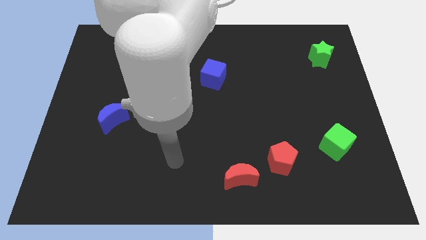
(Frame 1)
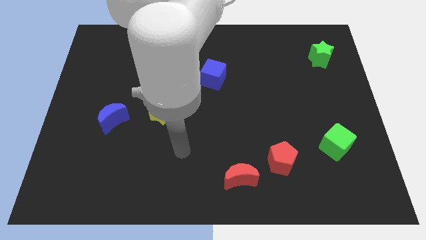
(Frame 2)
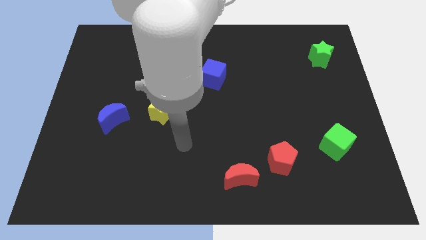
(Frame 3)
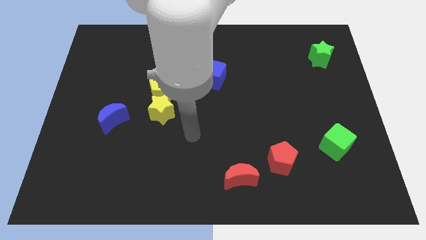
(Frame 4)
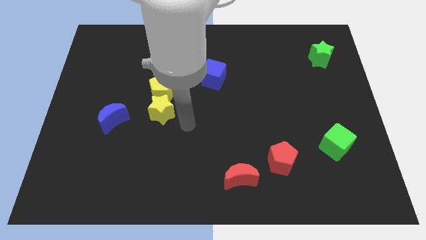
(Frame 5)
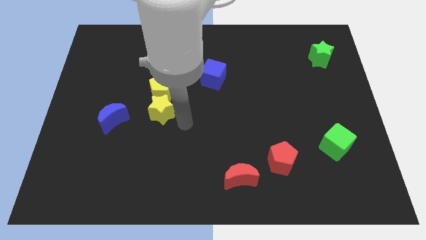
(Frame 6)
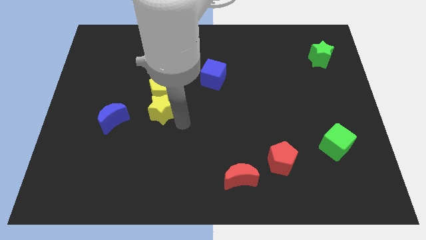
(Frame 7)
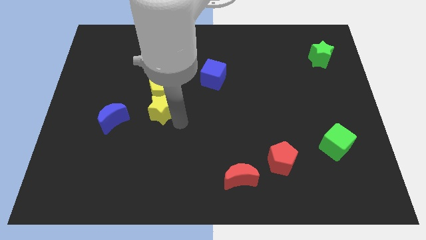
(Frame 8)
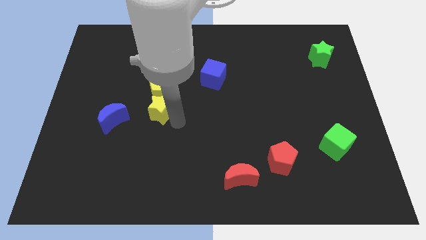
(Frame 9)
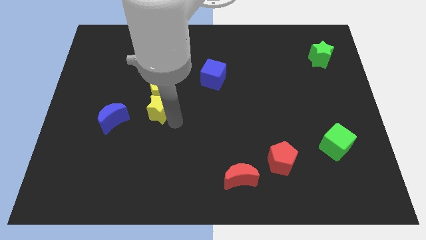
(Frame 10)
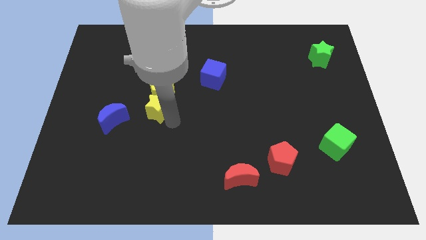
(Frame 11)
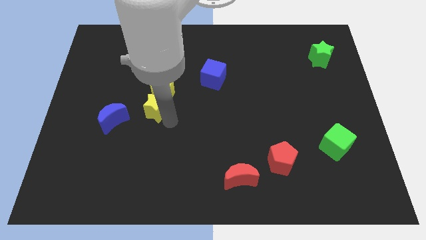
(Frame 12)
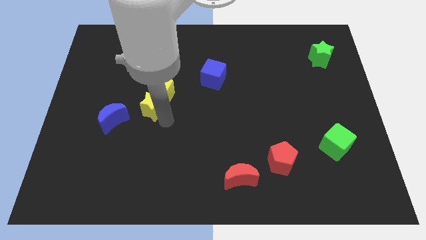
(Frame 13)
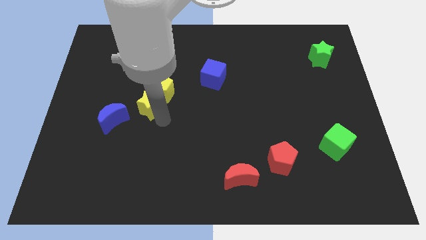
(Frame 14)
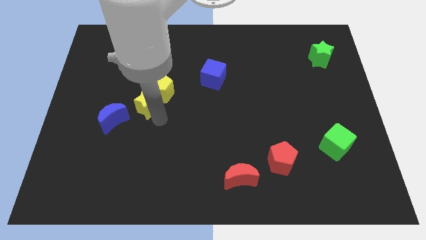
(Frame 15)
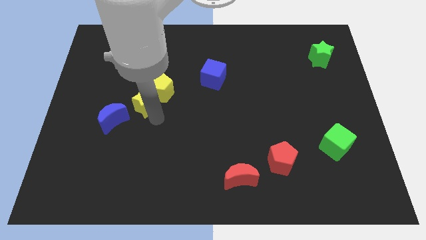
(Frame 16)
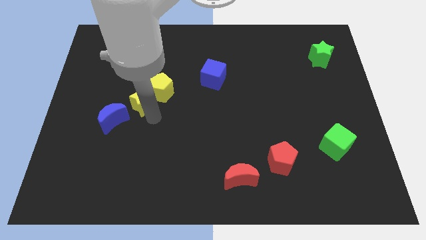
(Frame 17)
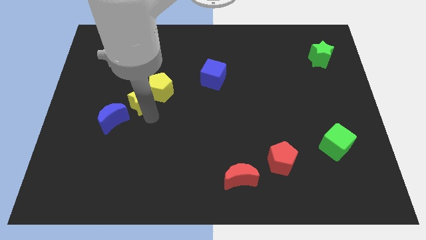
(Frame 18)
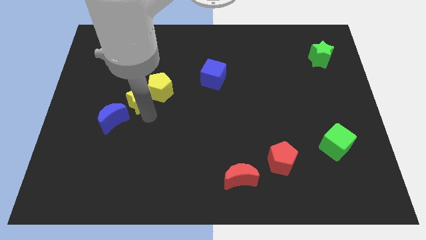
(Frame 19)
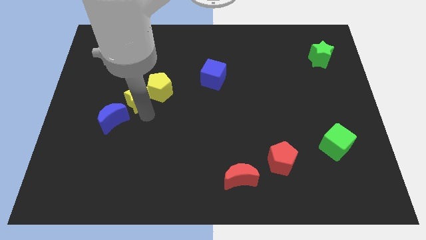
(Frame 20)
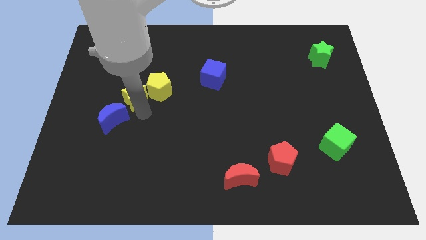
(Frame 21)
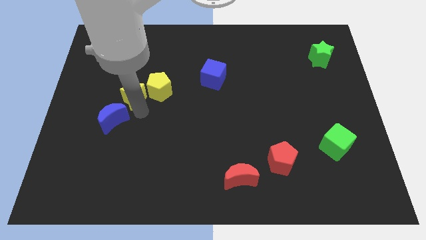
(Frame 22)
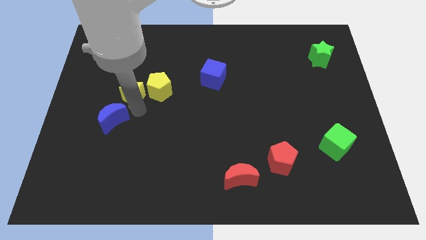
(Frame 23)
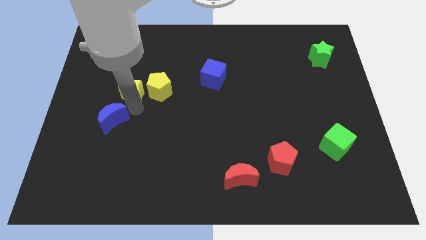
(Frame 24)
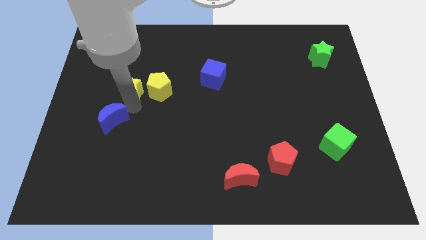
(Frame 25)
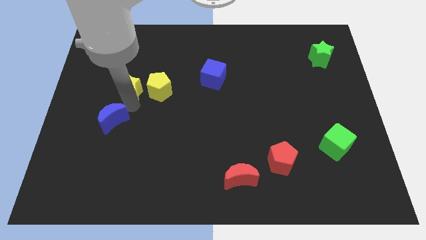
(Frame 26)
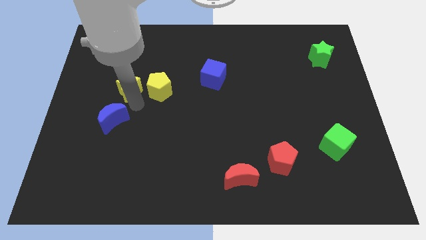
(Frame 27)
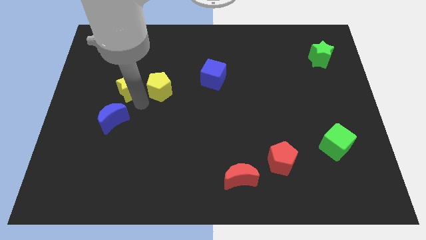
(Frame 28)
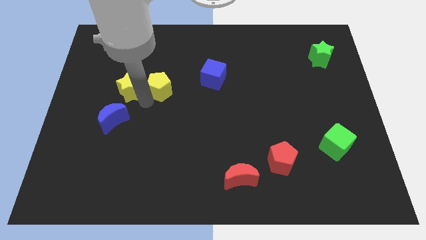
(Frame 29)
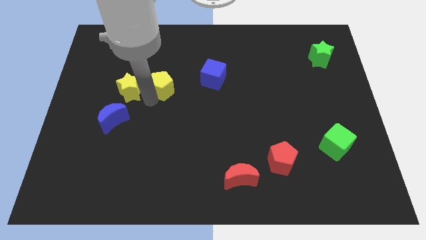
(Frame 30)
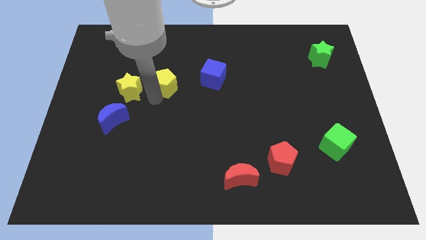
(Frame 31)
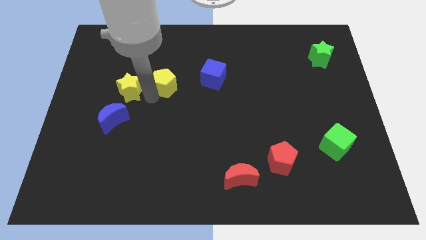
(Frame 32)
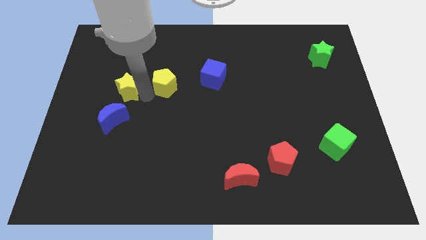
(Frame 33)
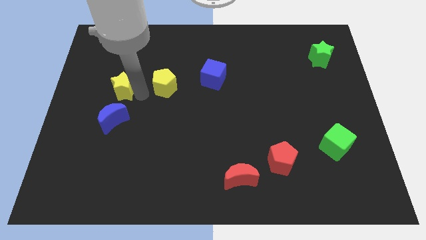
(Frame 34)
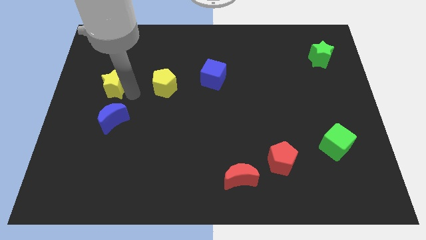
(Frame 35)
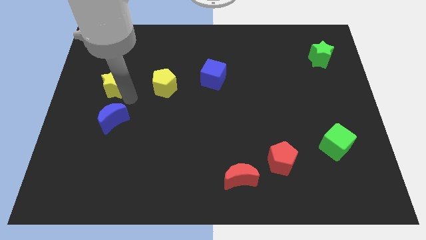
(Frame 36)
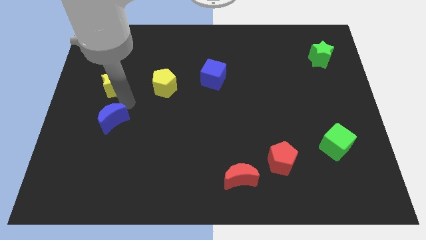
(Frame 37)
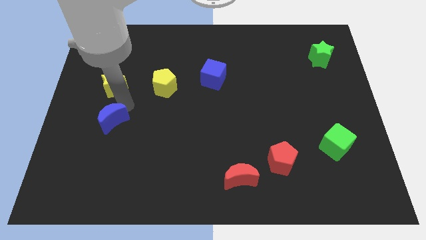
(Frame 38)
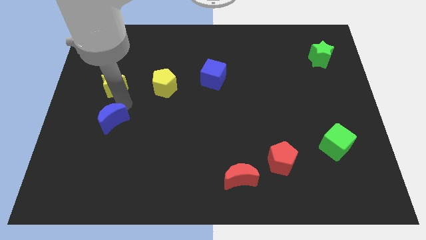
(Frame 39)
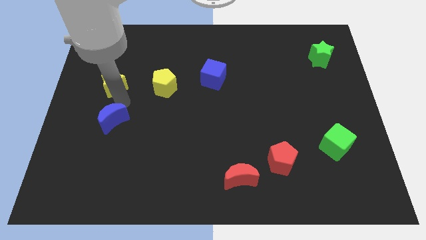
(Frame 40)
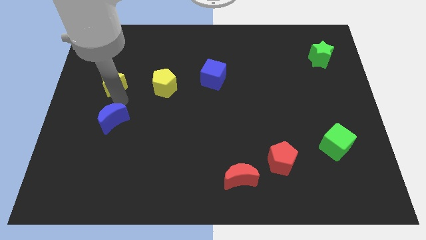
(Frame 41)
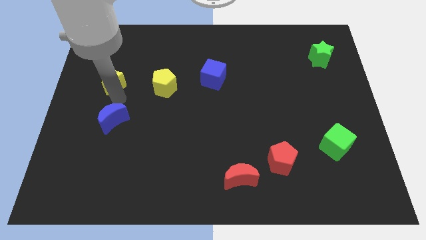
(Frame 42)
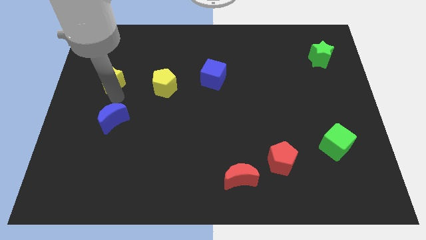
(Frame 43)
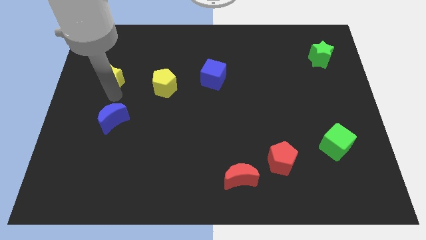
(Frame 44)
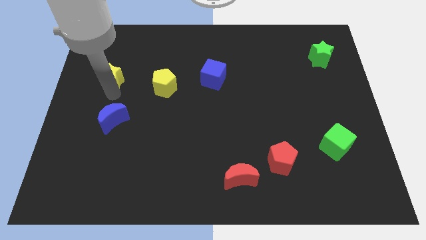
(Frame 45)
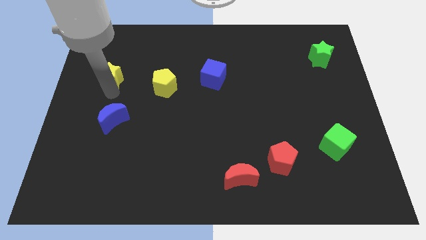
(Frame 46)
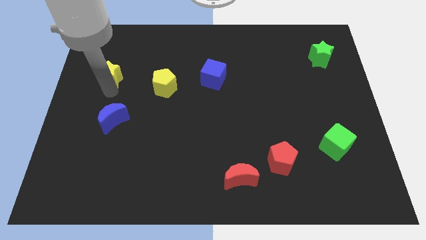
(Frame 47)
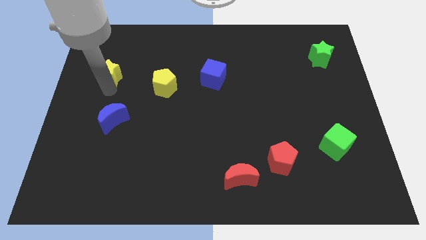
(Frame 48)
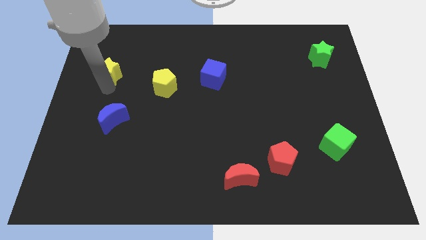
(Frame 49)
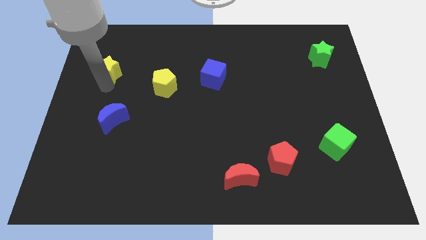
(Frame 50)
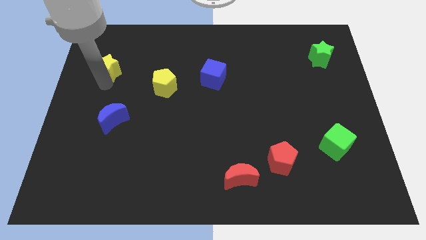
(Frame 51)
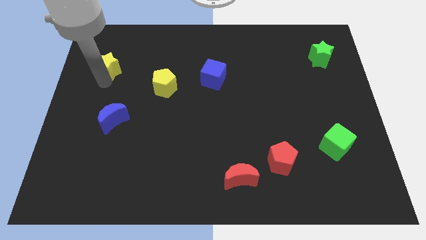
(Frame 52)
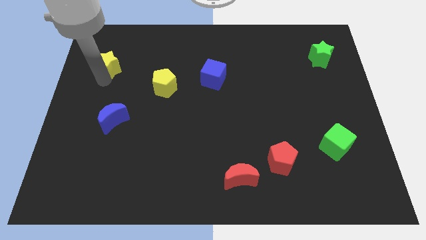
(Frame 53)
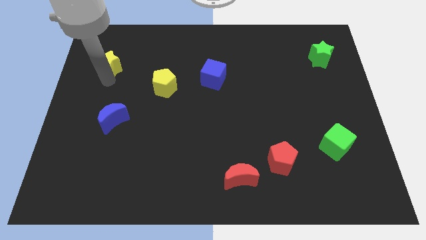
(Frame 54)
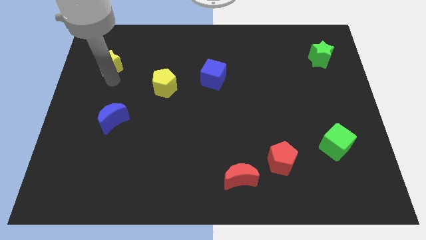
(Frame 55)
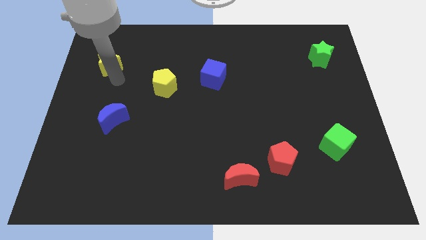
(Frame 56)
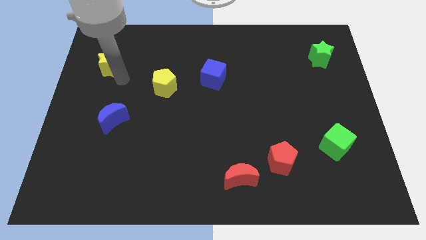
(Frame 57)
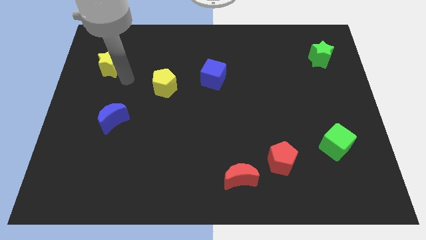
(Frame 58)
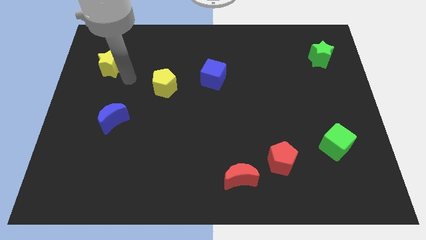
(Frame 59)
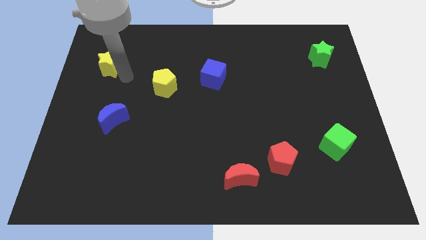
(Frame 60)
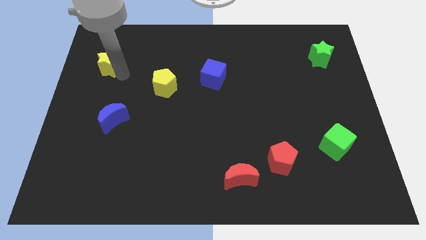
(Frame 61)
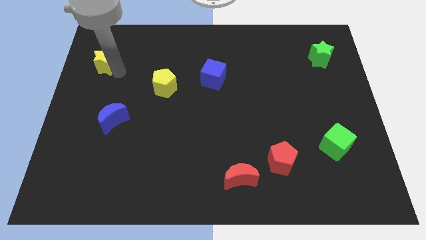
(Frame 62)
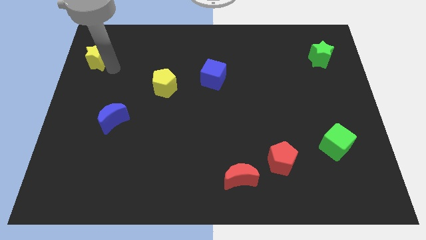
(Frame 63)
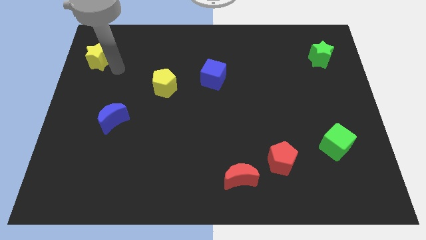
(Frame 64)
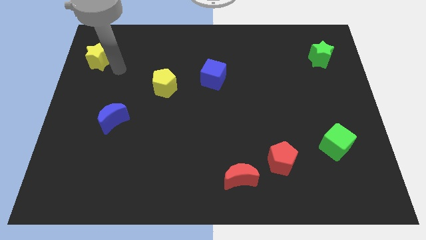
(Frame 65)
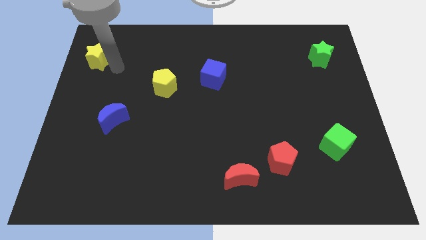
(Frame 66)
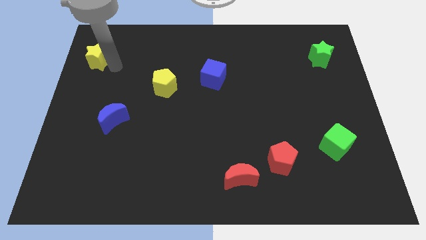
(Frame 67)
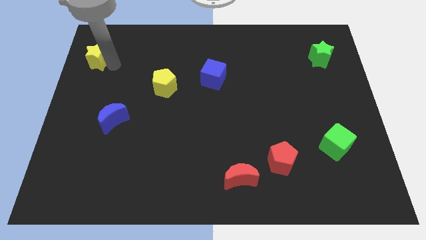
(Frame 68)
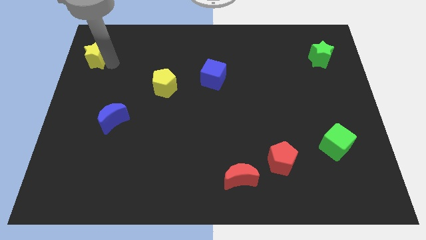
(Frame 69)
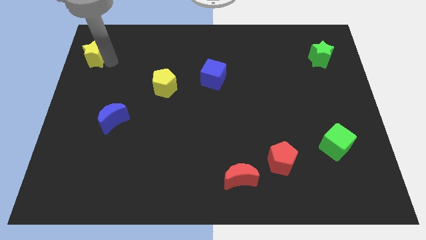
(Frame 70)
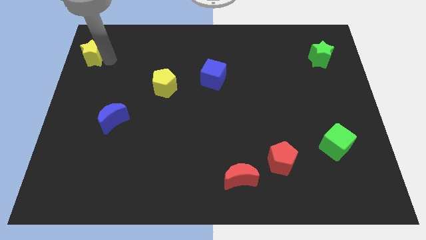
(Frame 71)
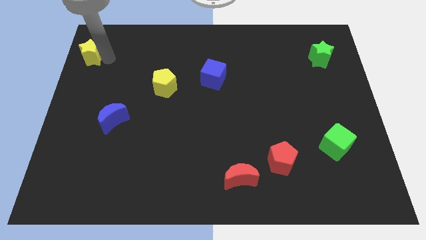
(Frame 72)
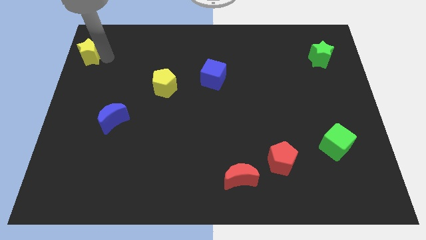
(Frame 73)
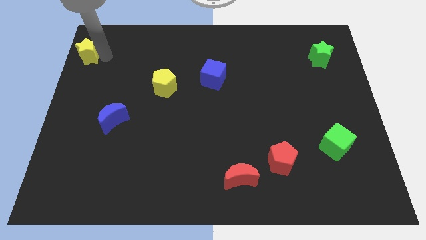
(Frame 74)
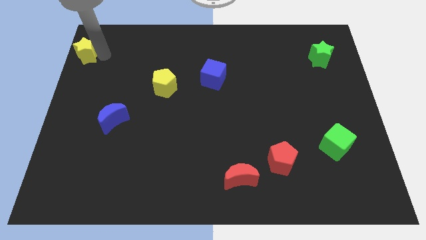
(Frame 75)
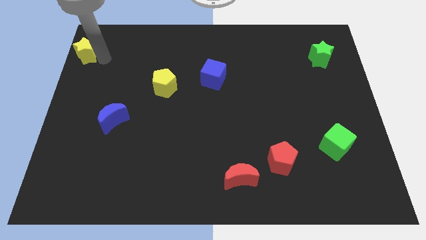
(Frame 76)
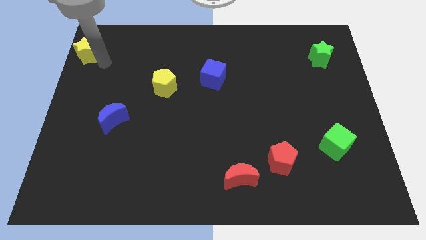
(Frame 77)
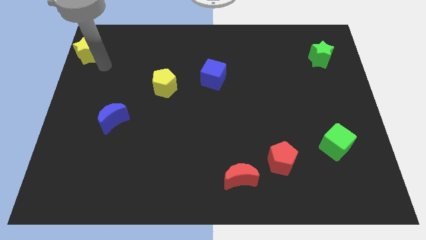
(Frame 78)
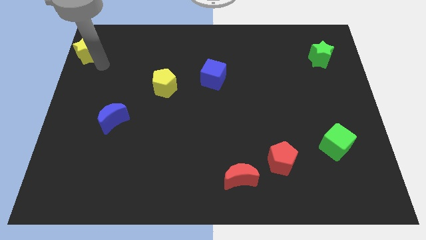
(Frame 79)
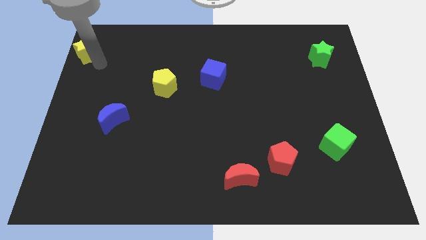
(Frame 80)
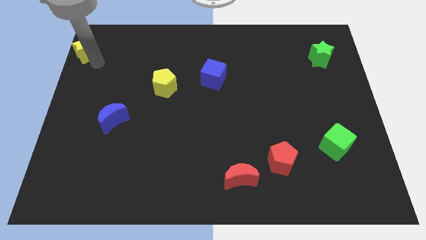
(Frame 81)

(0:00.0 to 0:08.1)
slide the yellow star to the top left corner
